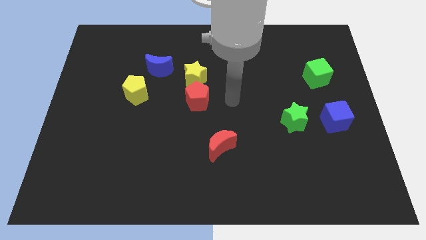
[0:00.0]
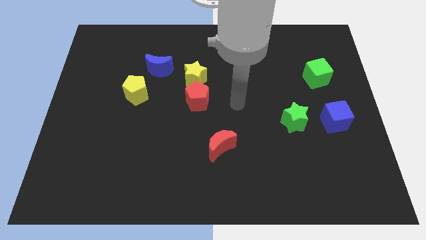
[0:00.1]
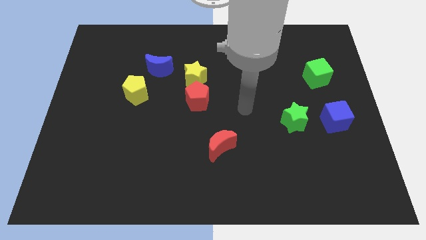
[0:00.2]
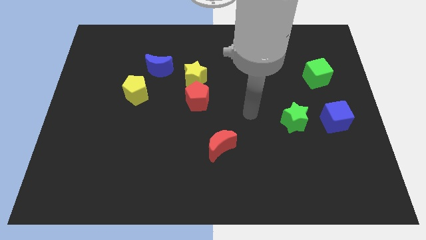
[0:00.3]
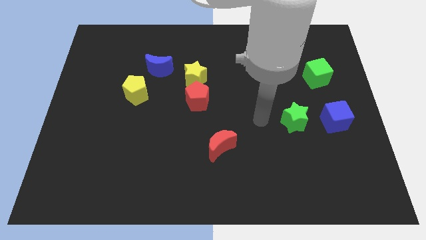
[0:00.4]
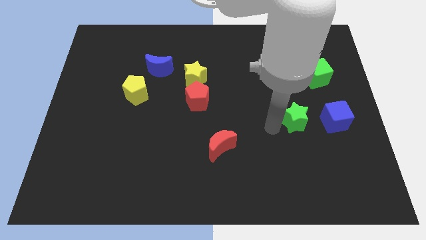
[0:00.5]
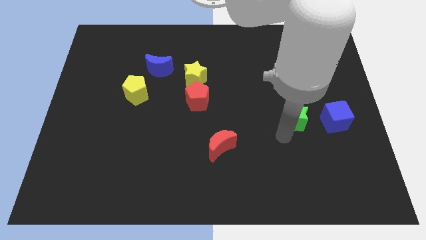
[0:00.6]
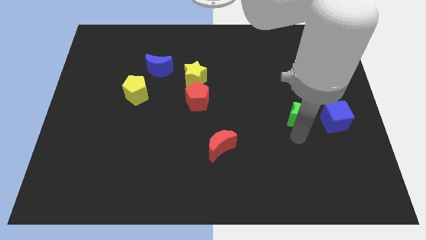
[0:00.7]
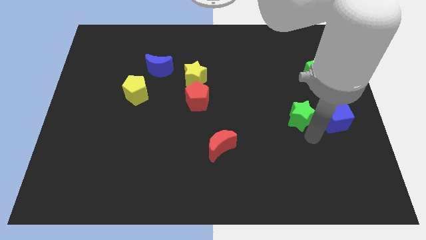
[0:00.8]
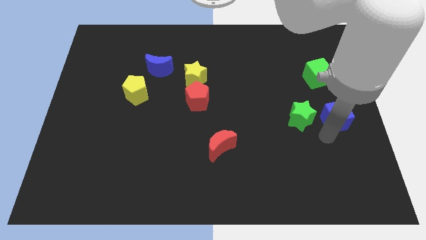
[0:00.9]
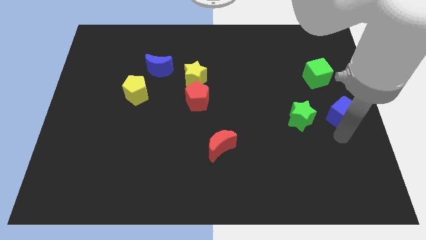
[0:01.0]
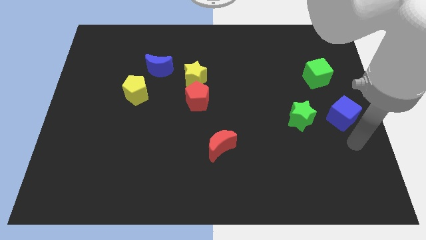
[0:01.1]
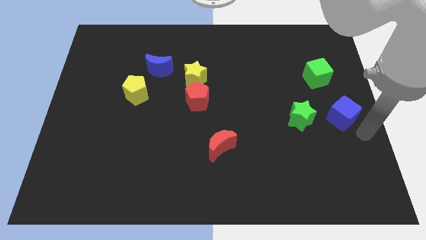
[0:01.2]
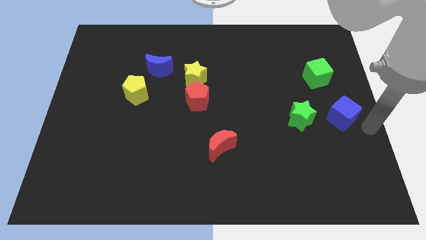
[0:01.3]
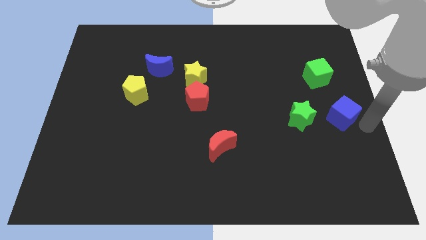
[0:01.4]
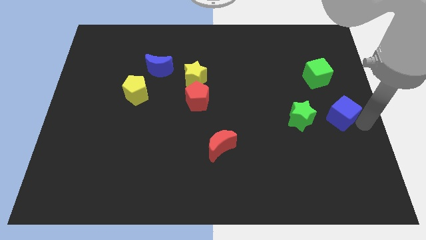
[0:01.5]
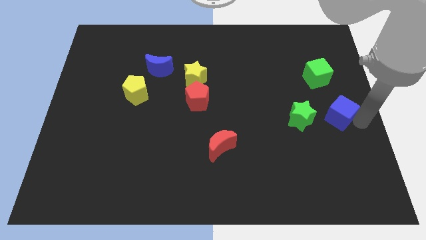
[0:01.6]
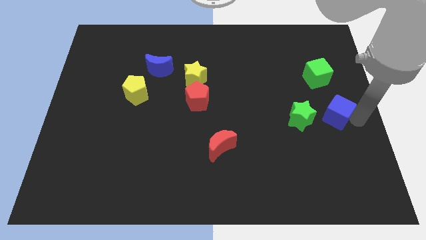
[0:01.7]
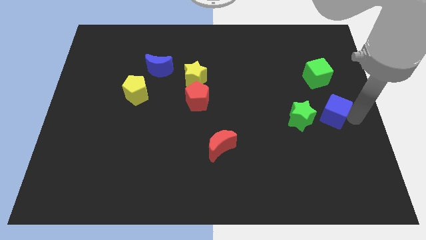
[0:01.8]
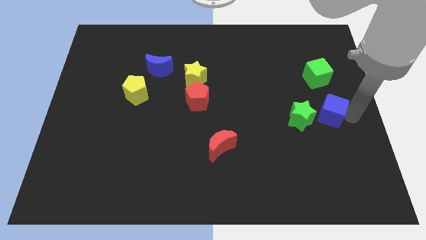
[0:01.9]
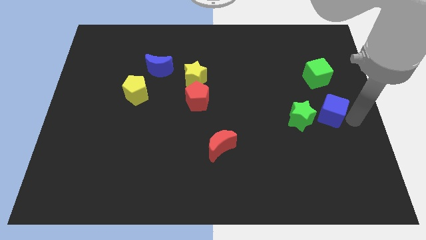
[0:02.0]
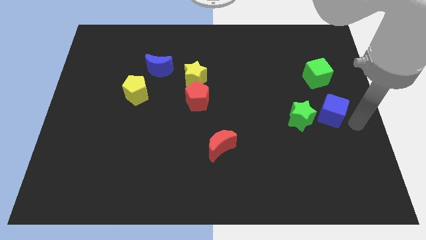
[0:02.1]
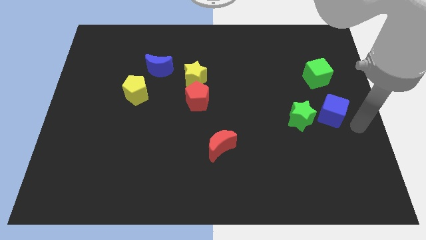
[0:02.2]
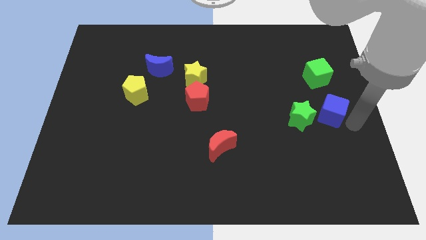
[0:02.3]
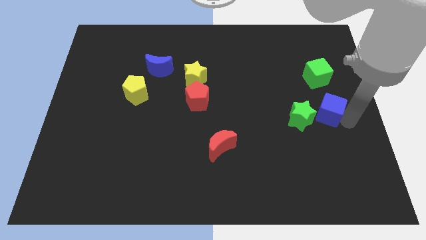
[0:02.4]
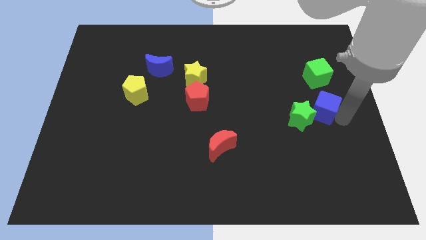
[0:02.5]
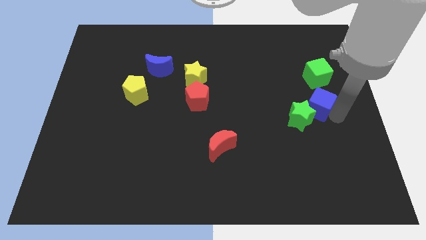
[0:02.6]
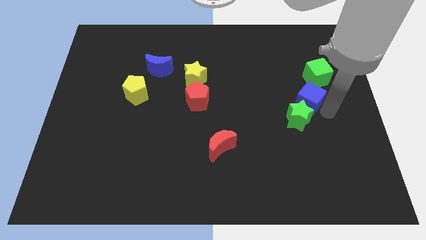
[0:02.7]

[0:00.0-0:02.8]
push the blue cube a bit diagonally upwards and left

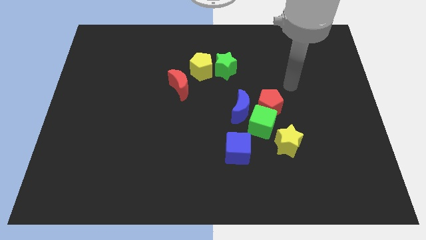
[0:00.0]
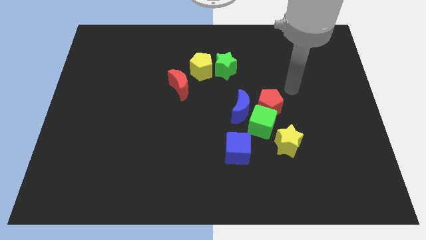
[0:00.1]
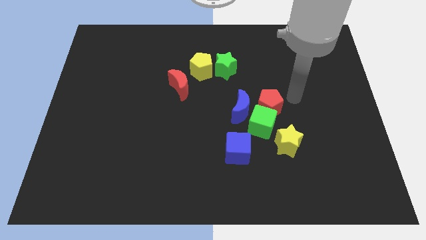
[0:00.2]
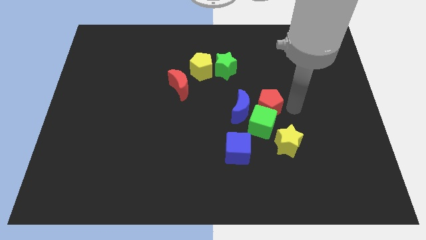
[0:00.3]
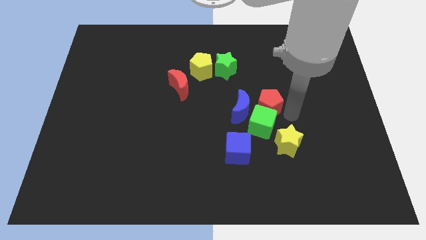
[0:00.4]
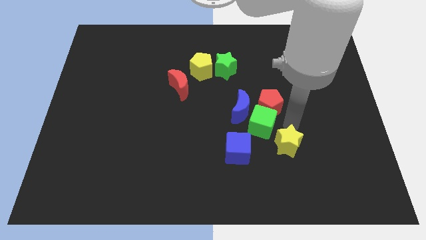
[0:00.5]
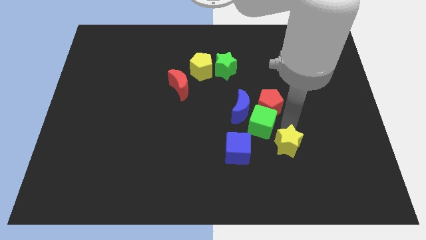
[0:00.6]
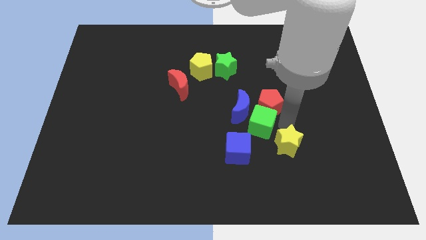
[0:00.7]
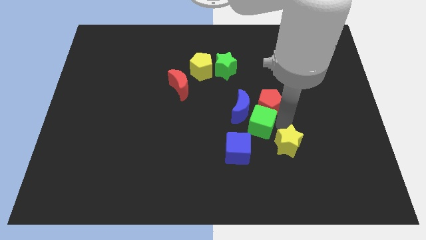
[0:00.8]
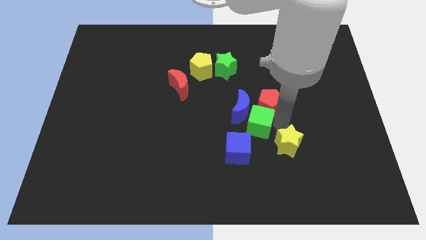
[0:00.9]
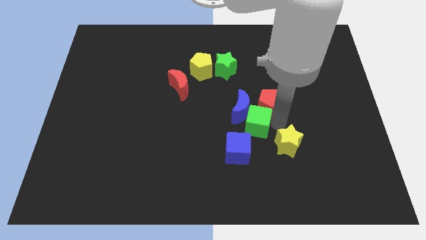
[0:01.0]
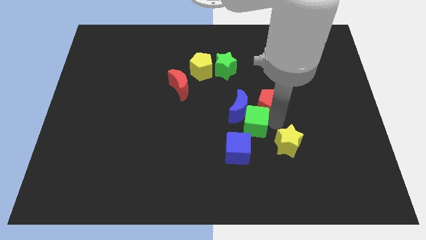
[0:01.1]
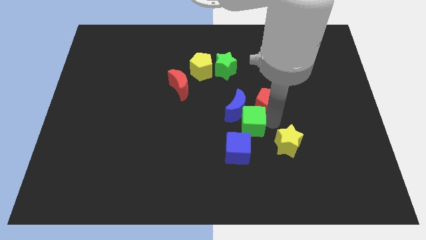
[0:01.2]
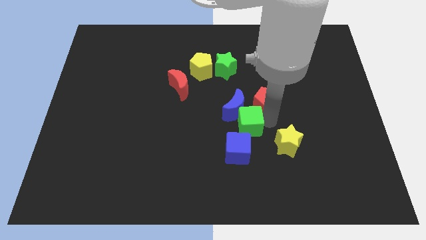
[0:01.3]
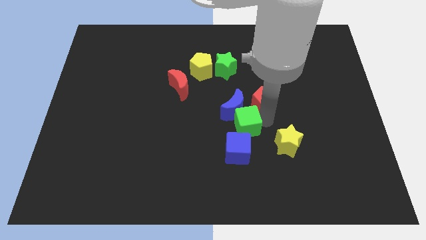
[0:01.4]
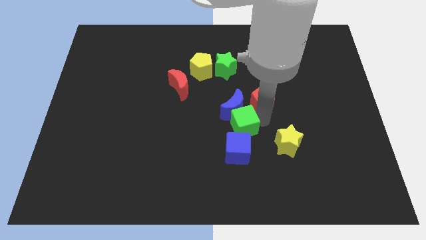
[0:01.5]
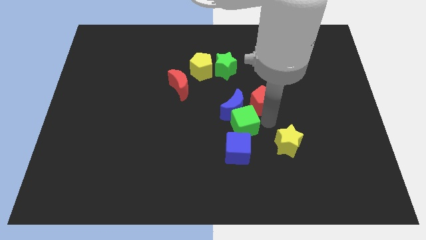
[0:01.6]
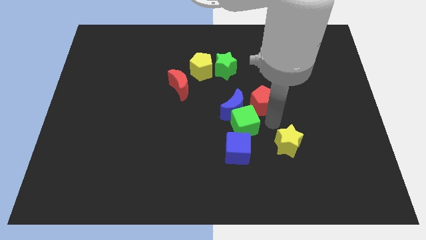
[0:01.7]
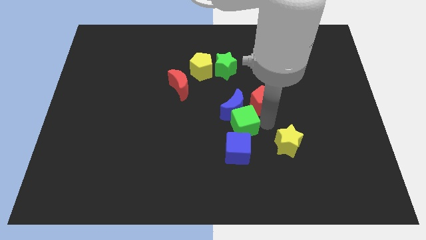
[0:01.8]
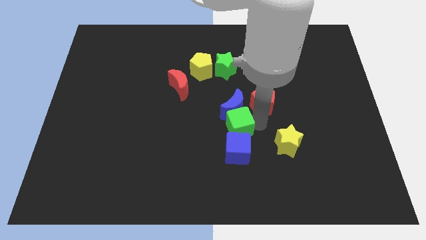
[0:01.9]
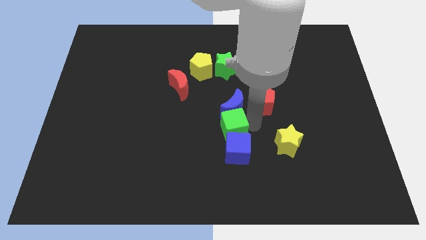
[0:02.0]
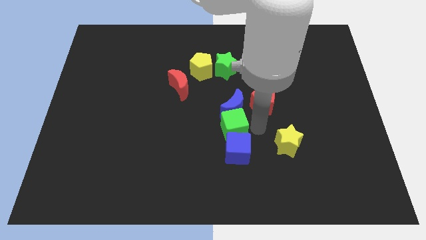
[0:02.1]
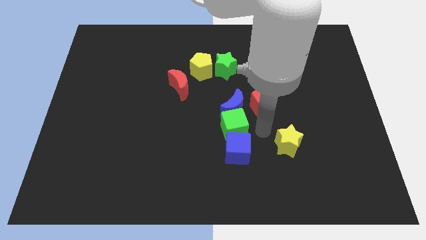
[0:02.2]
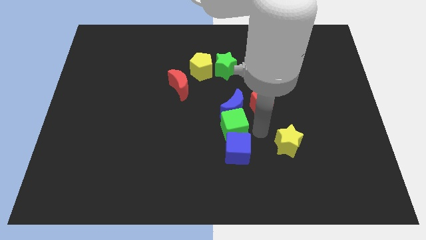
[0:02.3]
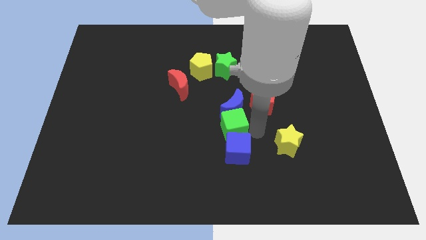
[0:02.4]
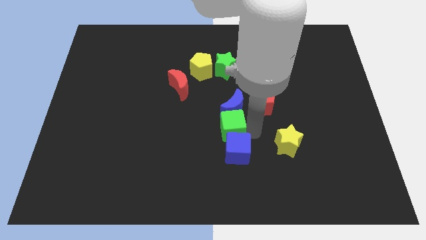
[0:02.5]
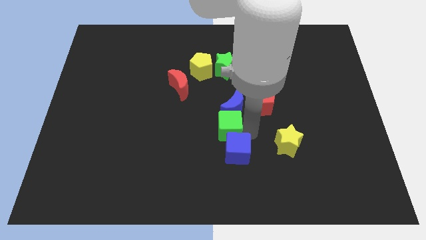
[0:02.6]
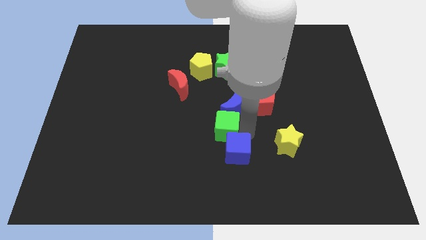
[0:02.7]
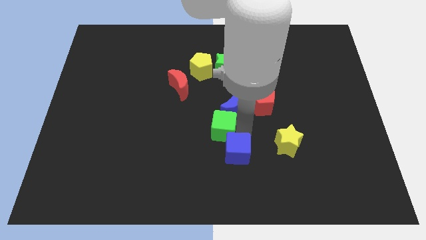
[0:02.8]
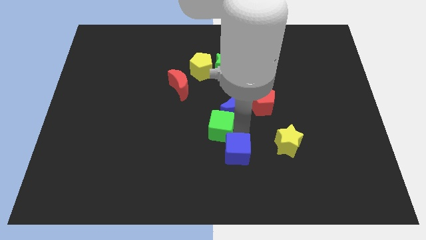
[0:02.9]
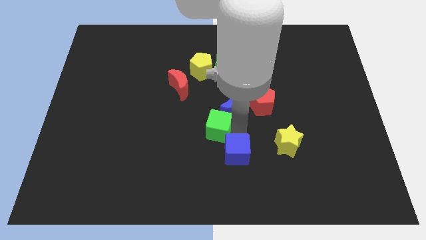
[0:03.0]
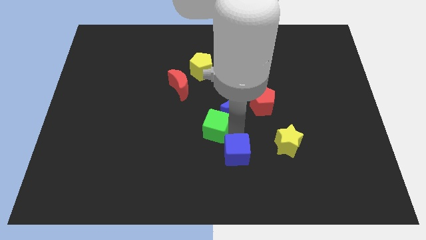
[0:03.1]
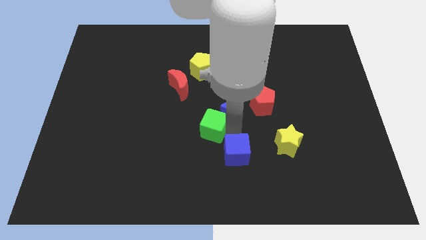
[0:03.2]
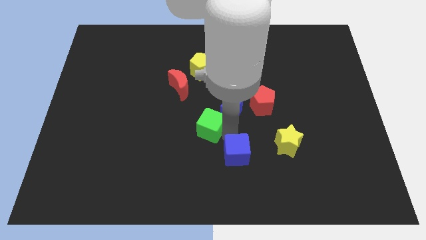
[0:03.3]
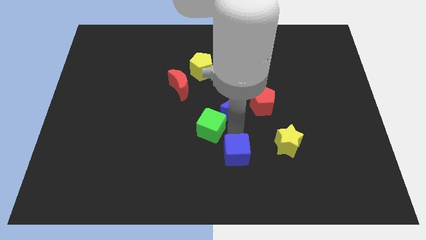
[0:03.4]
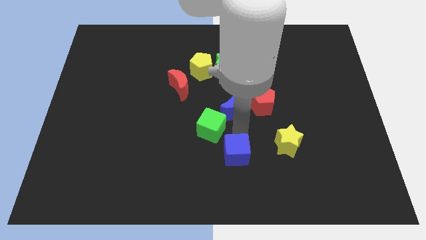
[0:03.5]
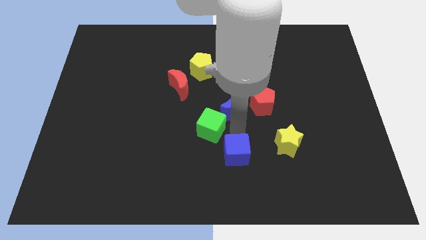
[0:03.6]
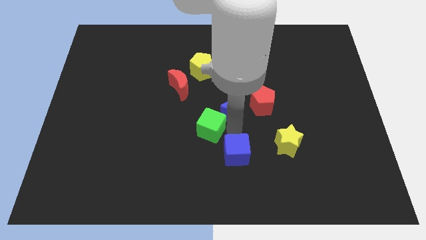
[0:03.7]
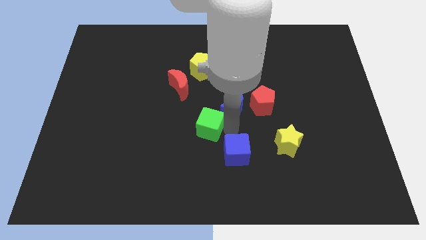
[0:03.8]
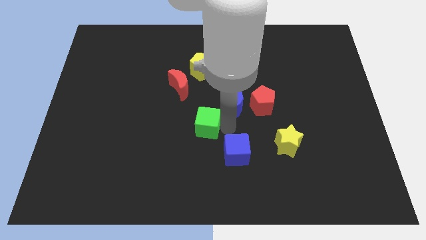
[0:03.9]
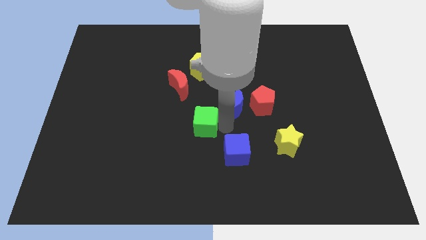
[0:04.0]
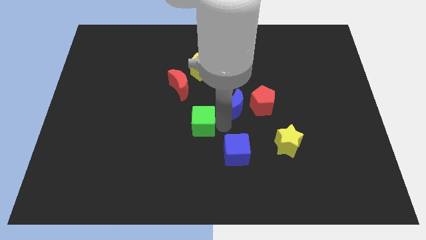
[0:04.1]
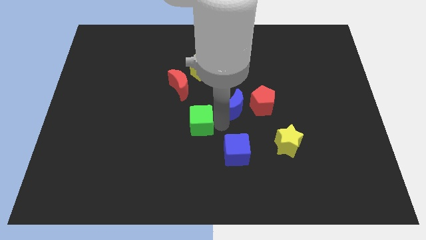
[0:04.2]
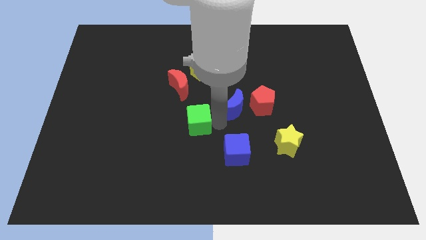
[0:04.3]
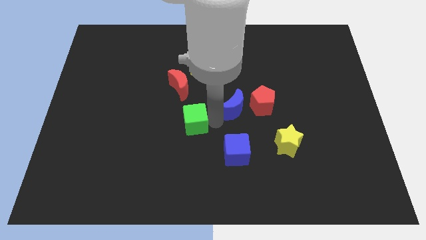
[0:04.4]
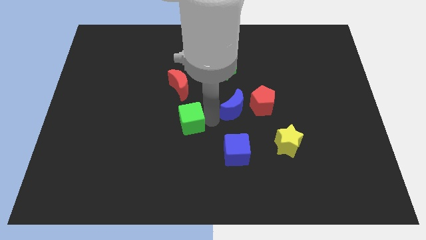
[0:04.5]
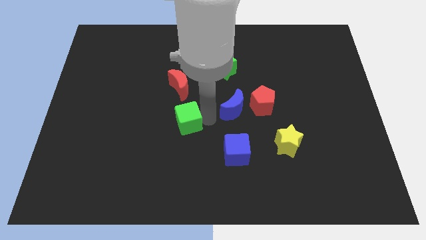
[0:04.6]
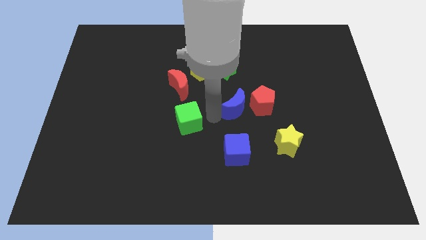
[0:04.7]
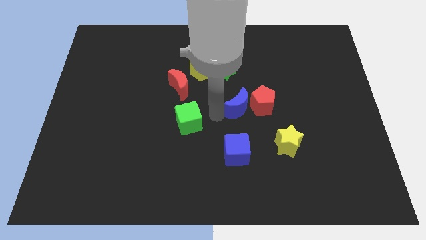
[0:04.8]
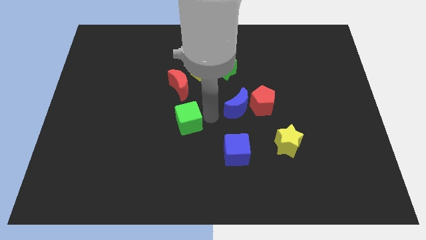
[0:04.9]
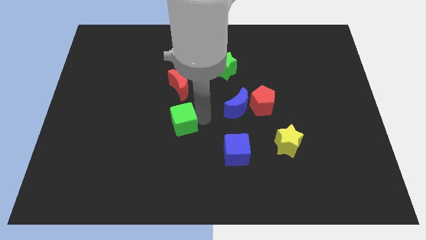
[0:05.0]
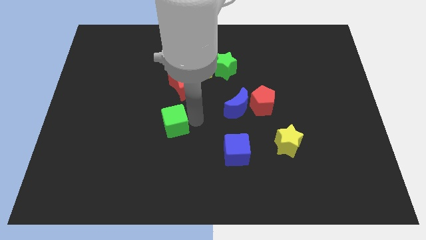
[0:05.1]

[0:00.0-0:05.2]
slide the green cube left
